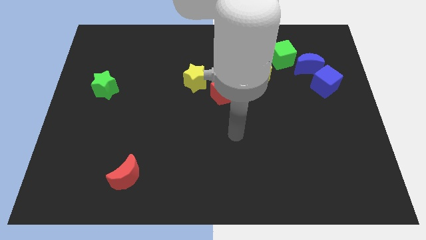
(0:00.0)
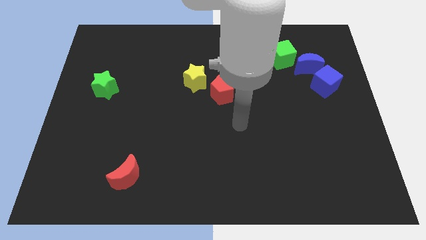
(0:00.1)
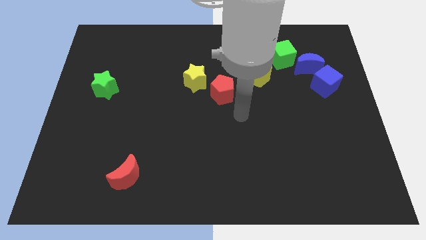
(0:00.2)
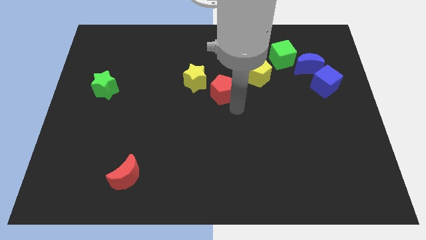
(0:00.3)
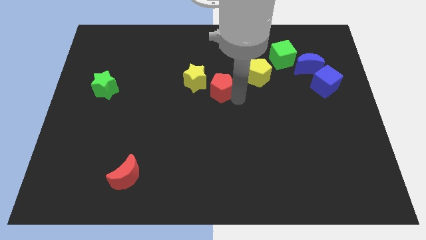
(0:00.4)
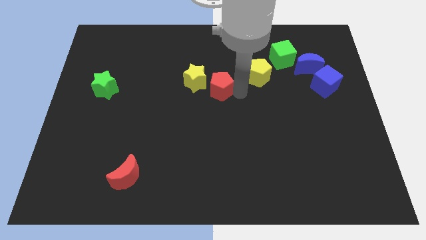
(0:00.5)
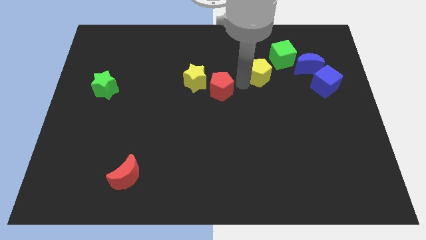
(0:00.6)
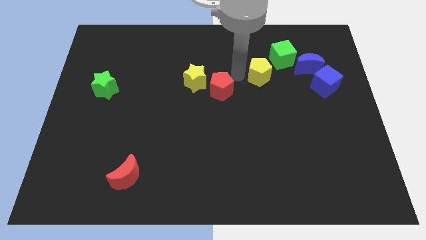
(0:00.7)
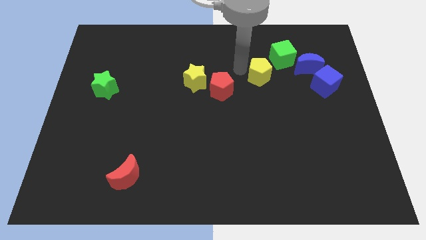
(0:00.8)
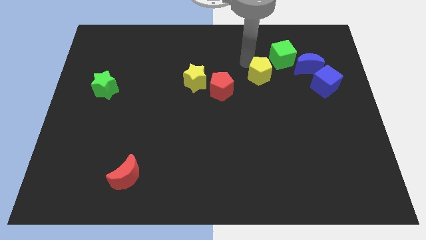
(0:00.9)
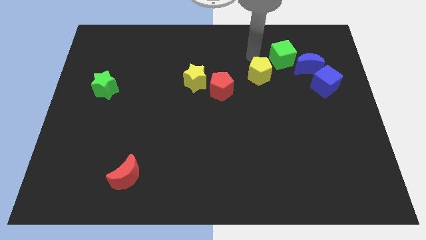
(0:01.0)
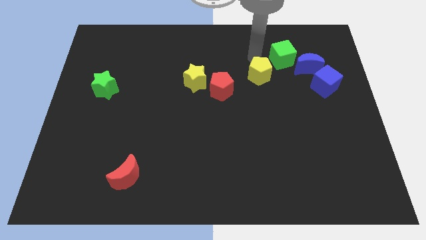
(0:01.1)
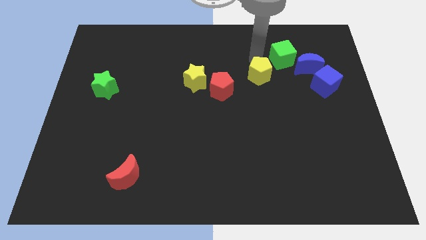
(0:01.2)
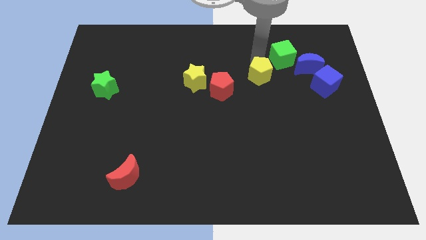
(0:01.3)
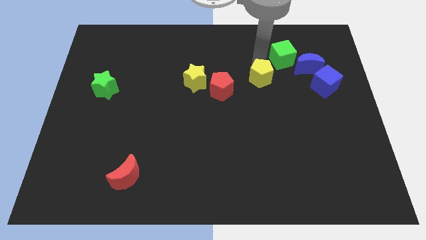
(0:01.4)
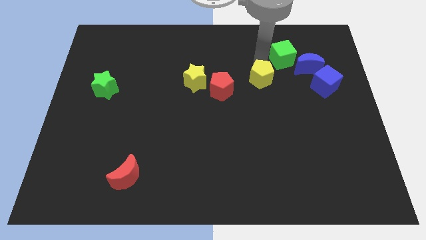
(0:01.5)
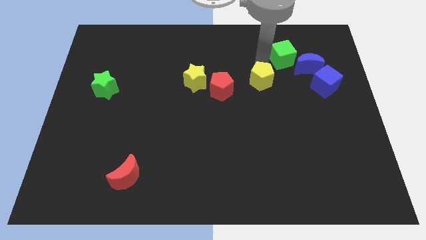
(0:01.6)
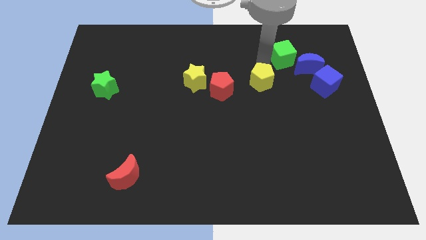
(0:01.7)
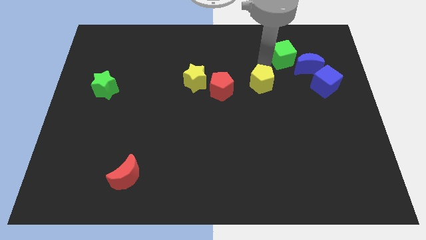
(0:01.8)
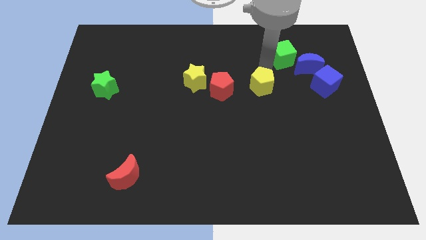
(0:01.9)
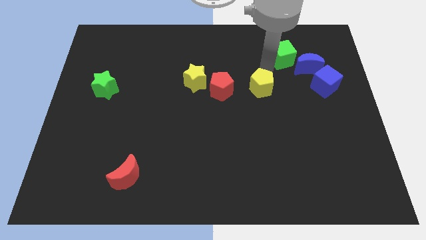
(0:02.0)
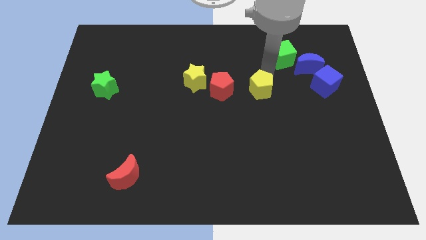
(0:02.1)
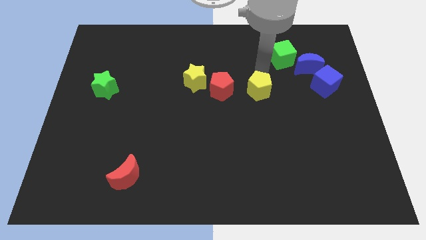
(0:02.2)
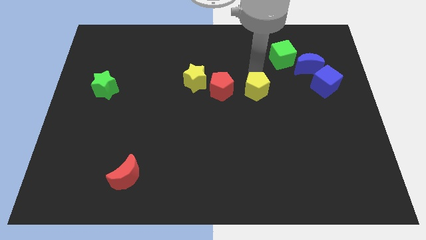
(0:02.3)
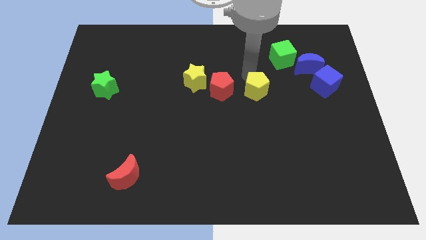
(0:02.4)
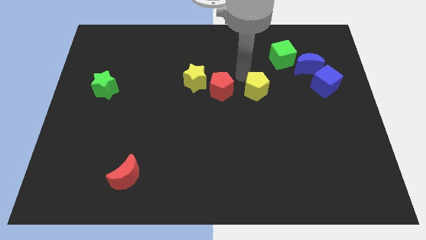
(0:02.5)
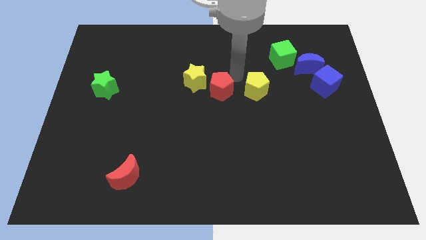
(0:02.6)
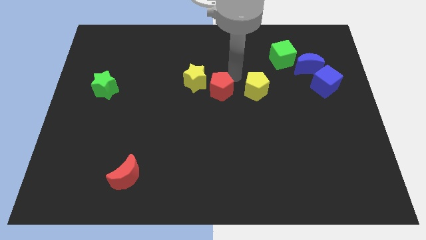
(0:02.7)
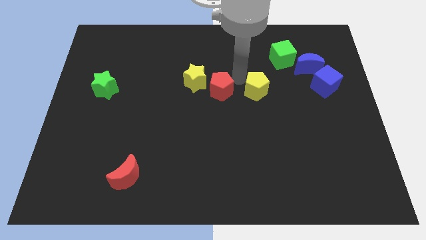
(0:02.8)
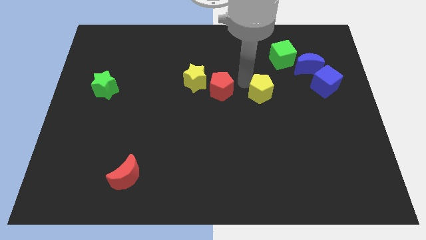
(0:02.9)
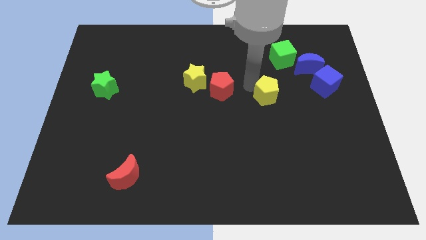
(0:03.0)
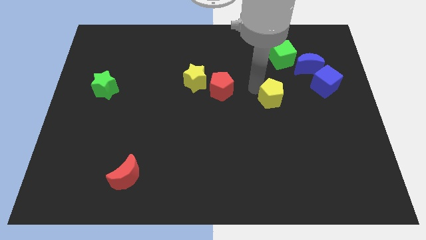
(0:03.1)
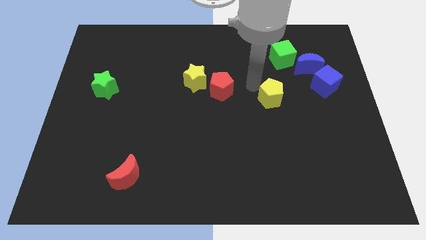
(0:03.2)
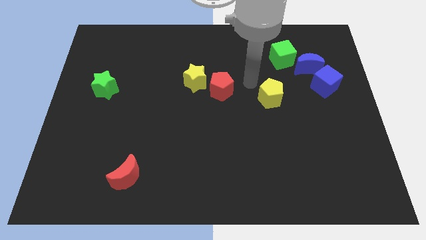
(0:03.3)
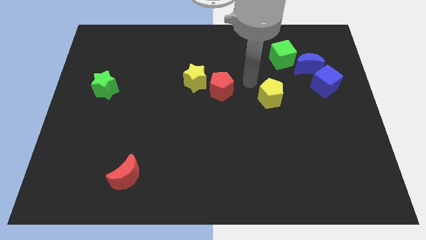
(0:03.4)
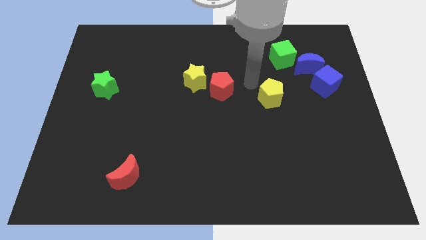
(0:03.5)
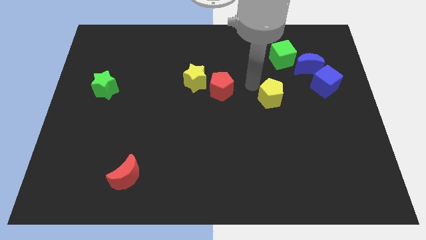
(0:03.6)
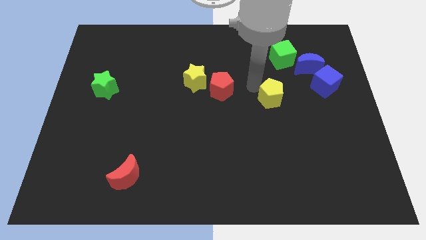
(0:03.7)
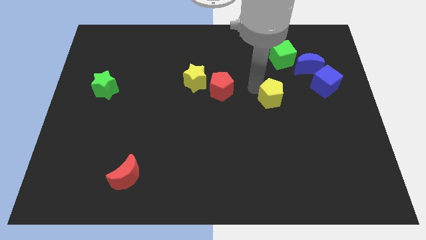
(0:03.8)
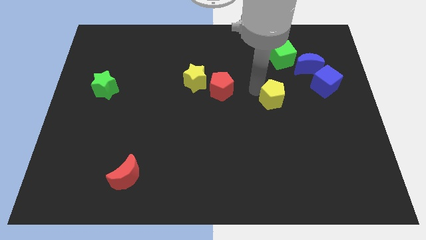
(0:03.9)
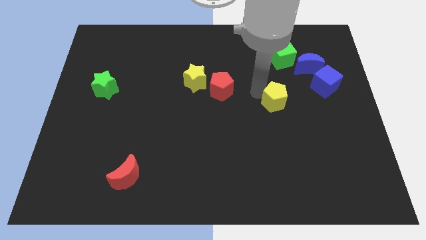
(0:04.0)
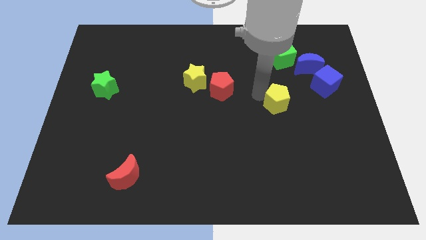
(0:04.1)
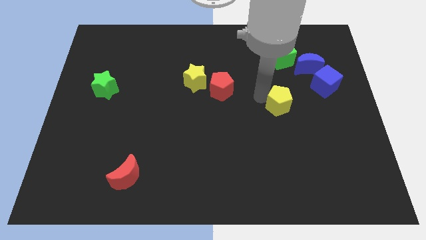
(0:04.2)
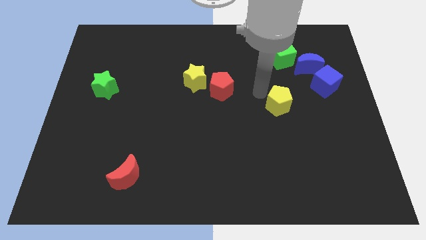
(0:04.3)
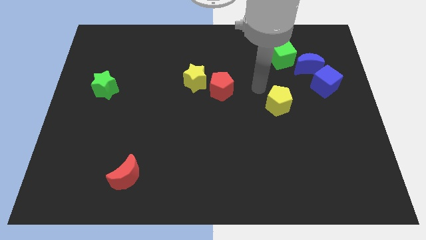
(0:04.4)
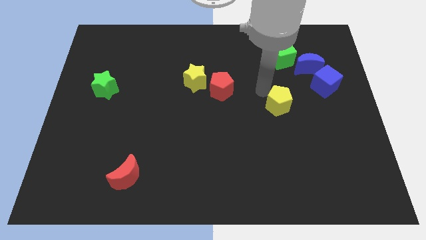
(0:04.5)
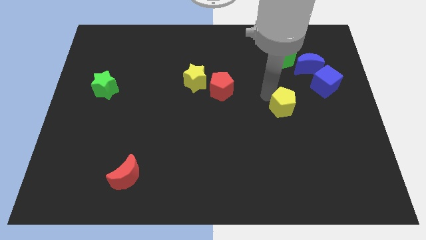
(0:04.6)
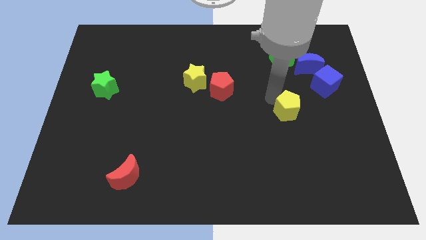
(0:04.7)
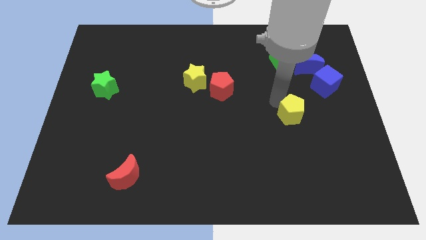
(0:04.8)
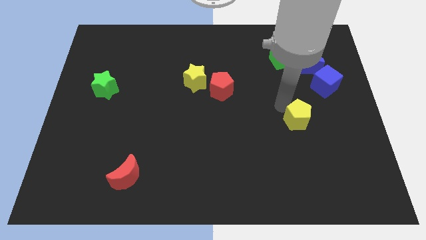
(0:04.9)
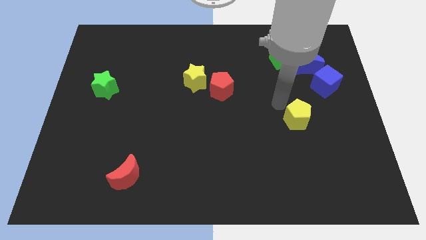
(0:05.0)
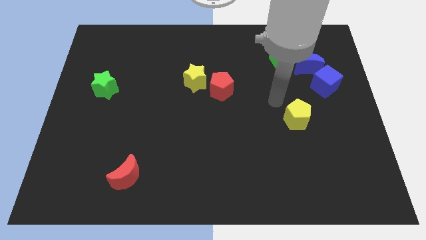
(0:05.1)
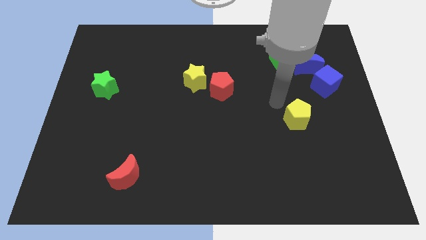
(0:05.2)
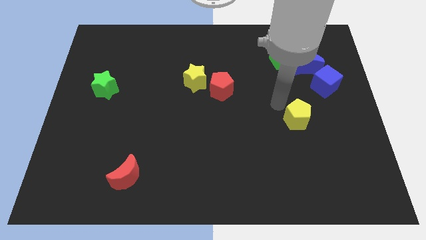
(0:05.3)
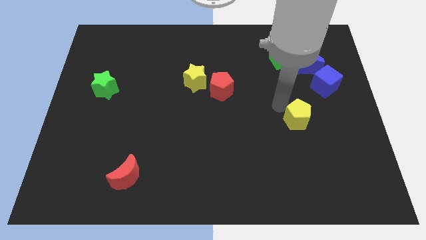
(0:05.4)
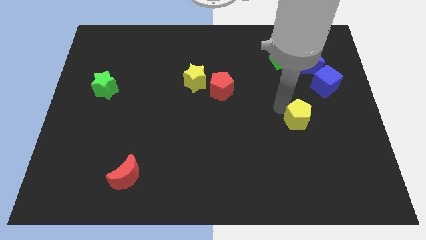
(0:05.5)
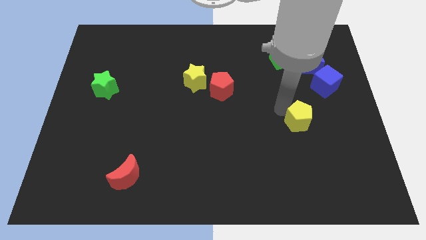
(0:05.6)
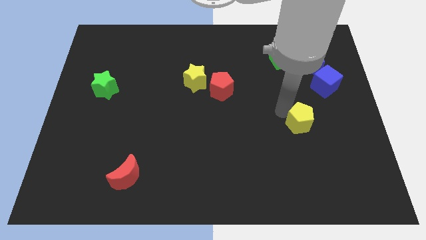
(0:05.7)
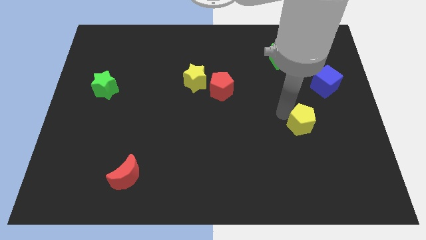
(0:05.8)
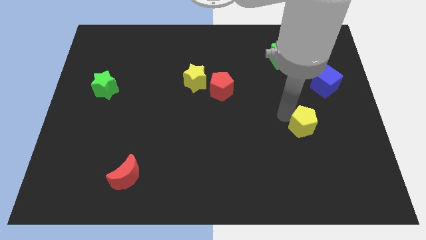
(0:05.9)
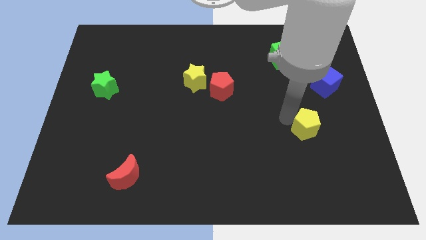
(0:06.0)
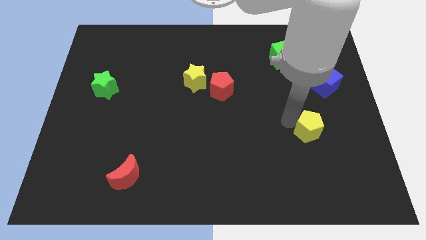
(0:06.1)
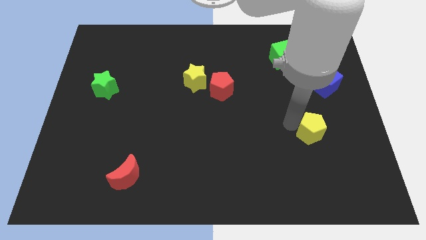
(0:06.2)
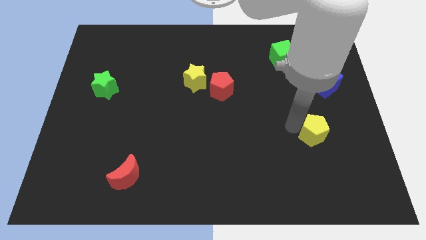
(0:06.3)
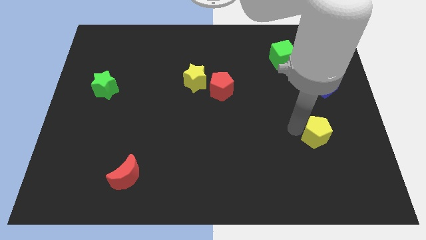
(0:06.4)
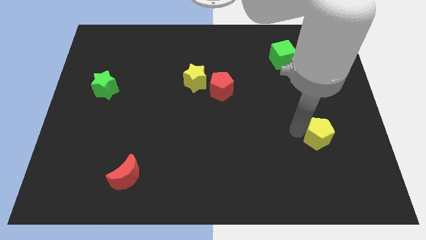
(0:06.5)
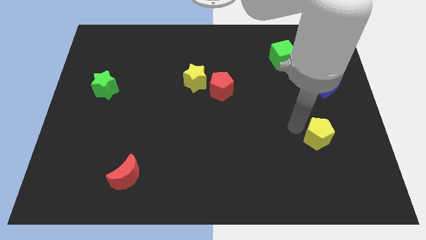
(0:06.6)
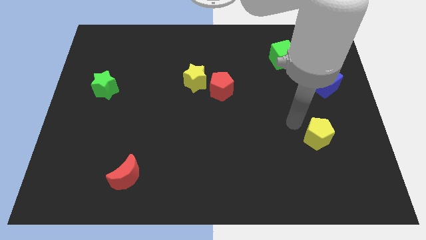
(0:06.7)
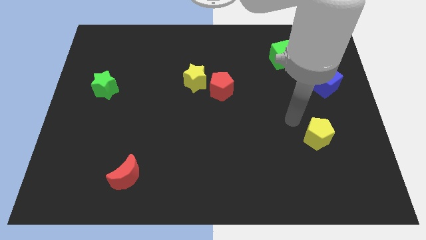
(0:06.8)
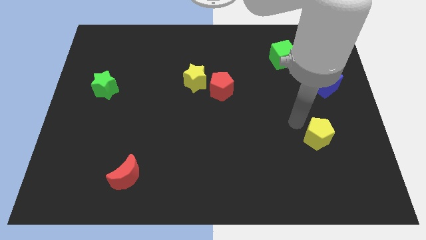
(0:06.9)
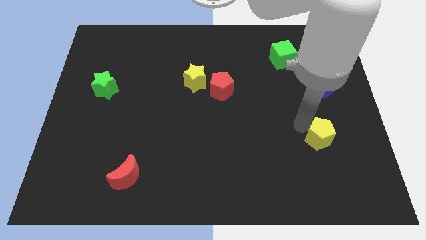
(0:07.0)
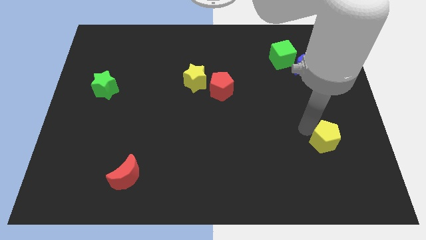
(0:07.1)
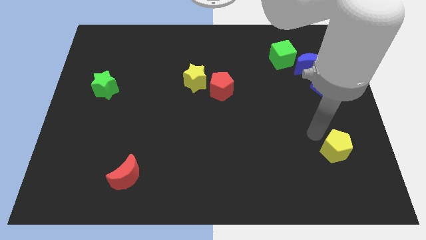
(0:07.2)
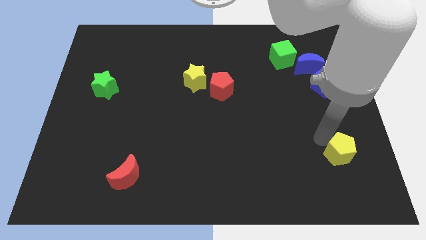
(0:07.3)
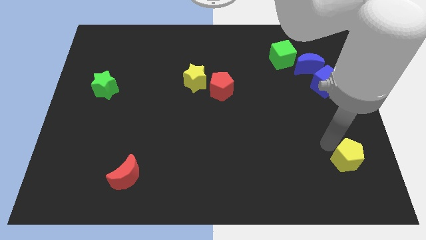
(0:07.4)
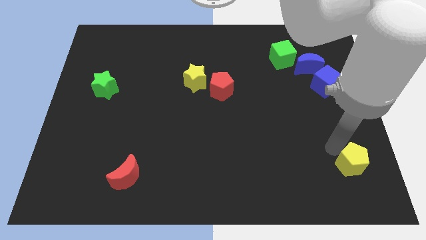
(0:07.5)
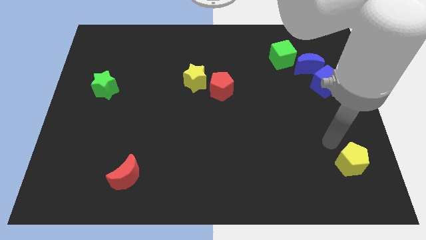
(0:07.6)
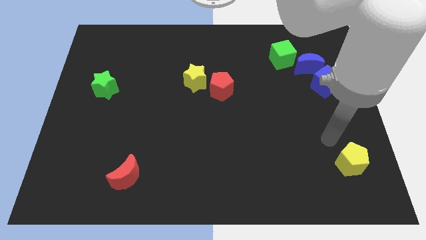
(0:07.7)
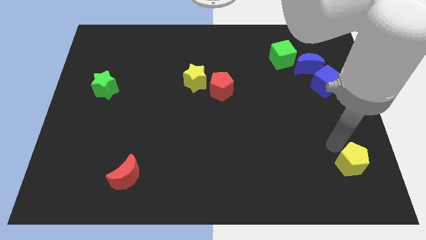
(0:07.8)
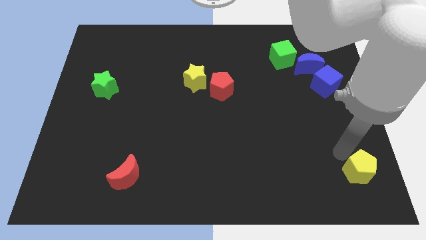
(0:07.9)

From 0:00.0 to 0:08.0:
push the yellow pentagon to the bottom right corner
